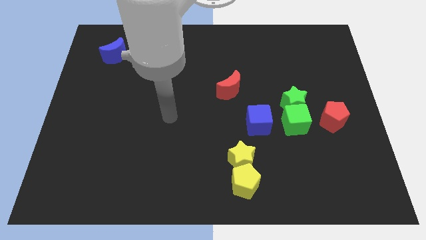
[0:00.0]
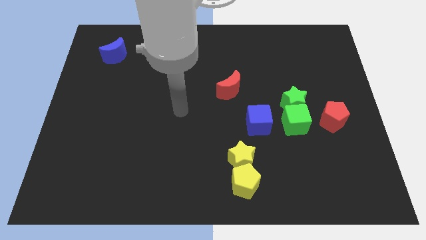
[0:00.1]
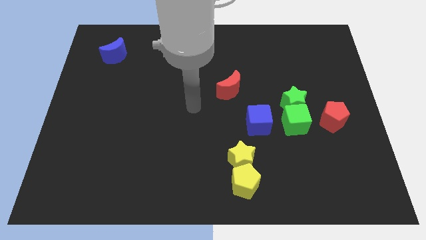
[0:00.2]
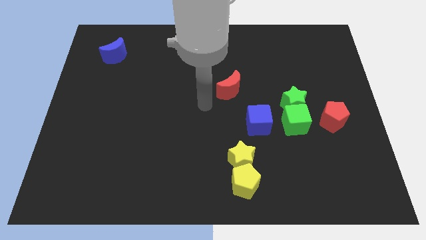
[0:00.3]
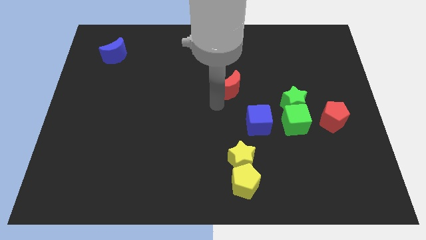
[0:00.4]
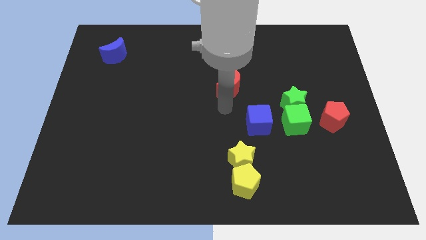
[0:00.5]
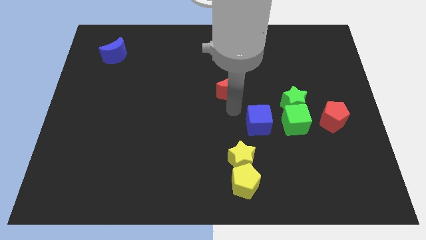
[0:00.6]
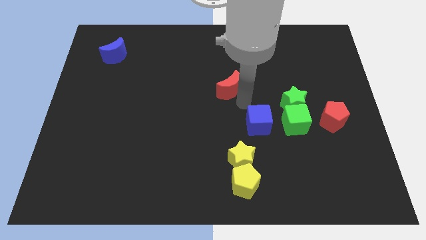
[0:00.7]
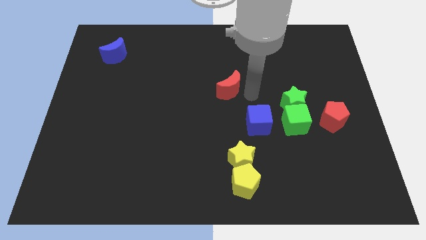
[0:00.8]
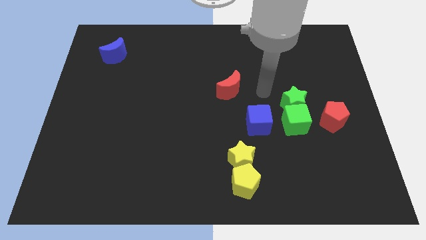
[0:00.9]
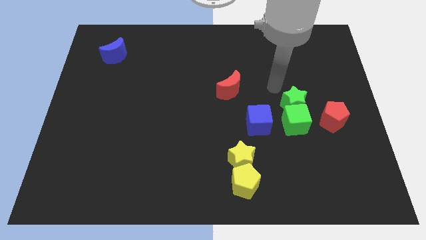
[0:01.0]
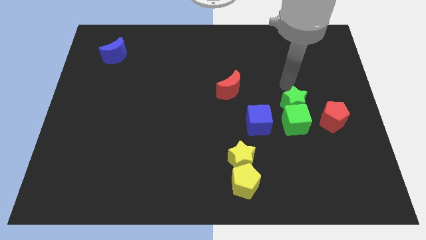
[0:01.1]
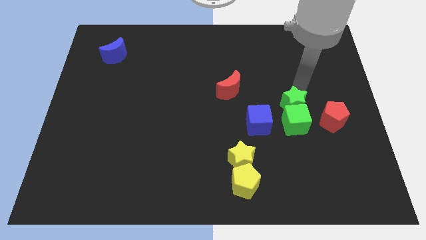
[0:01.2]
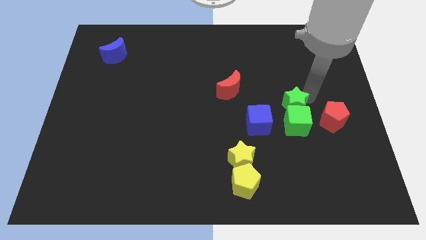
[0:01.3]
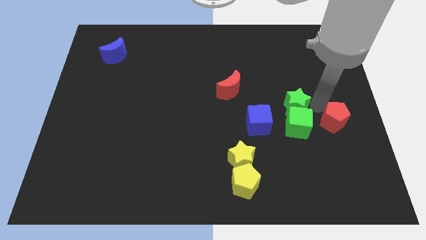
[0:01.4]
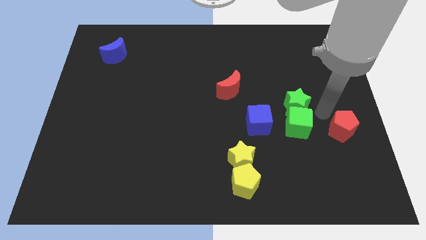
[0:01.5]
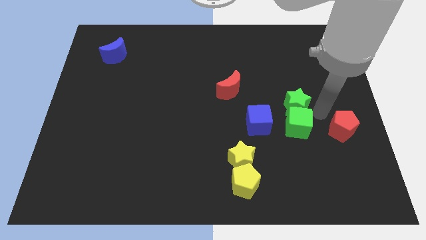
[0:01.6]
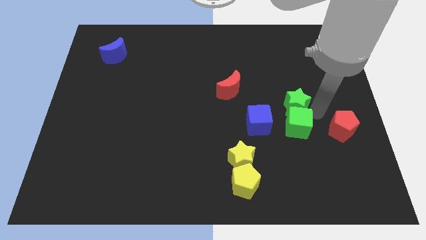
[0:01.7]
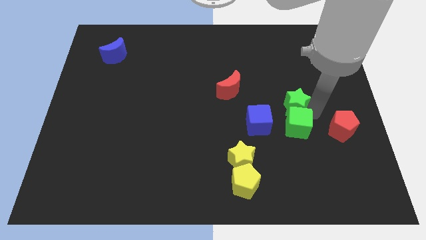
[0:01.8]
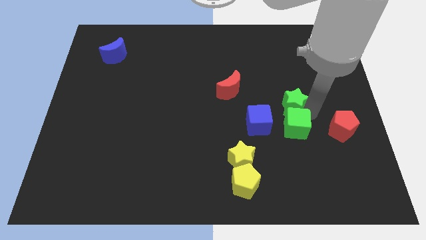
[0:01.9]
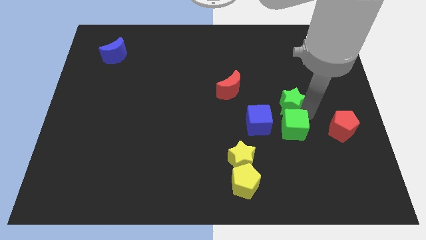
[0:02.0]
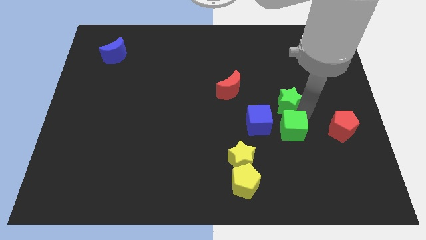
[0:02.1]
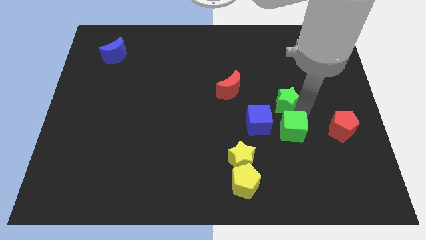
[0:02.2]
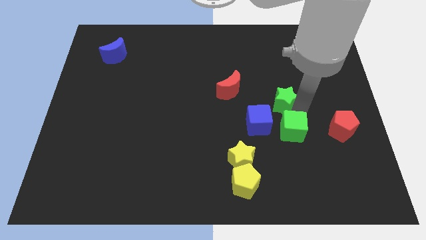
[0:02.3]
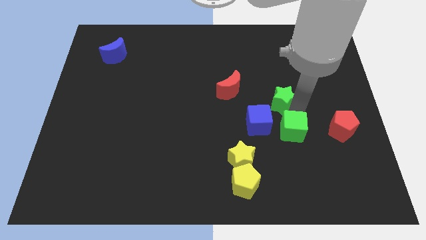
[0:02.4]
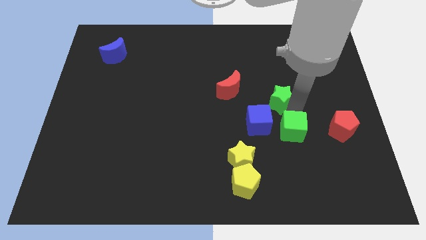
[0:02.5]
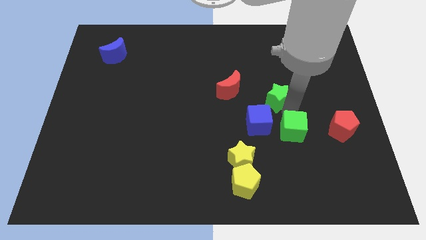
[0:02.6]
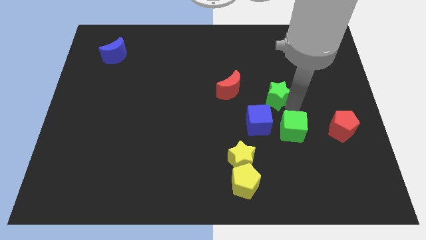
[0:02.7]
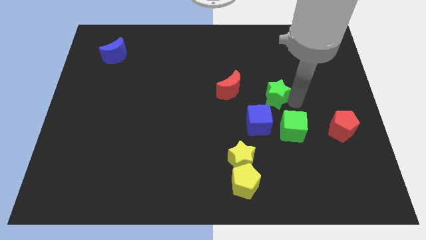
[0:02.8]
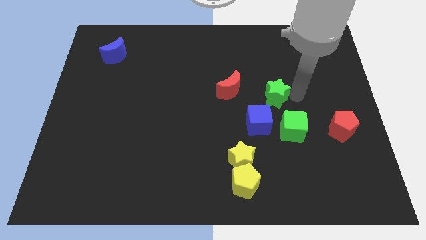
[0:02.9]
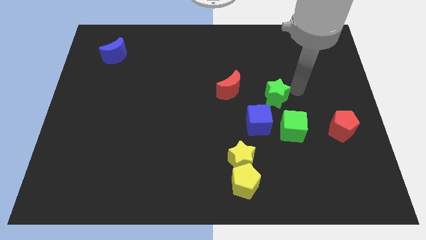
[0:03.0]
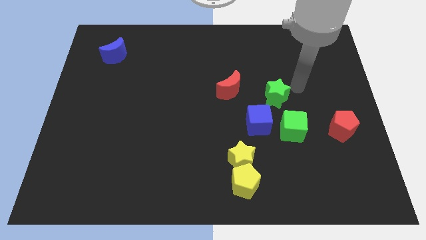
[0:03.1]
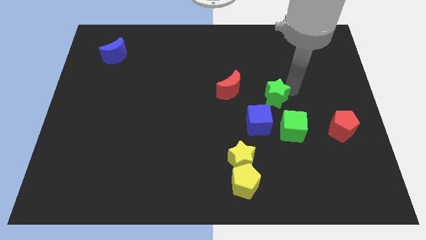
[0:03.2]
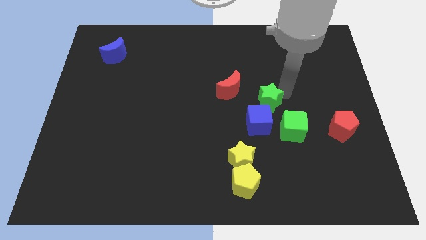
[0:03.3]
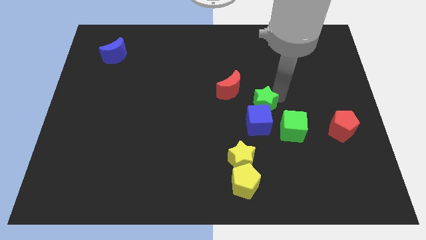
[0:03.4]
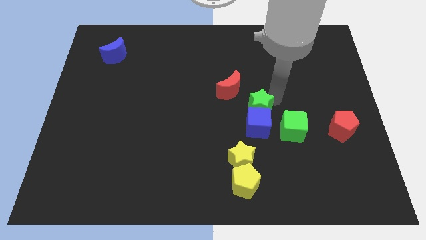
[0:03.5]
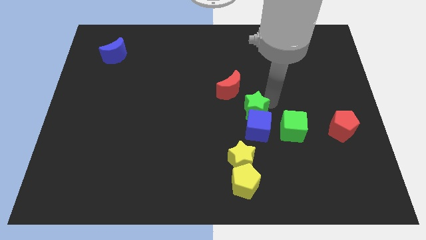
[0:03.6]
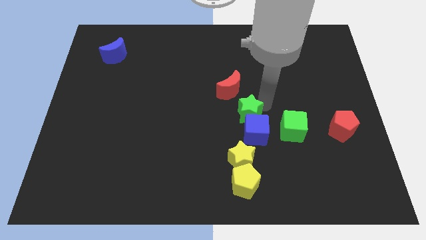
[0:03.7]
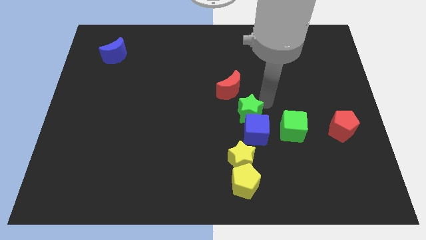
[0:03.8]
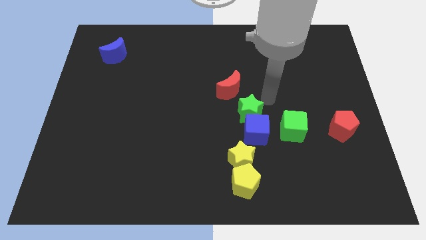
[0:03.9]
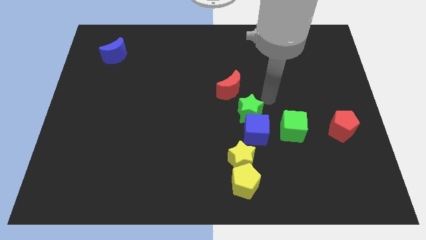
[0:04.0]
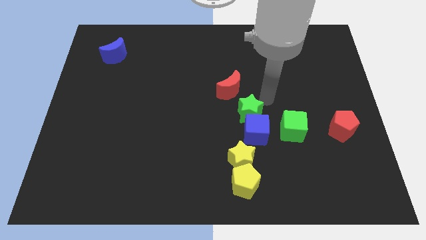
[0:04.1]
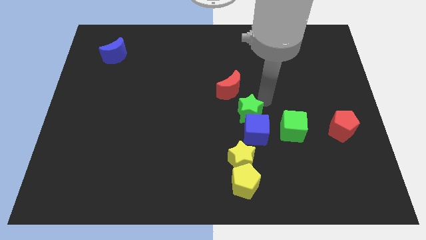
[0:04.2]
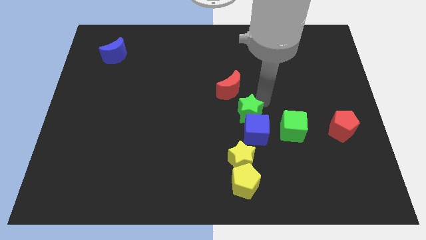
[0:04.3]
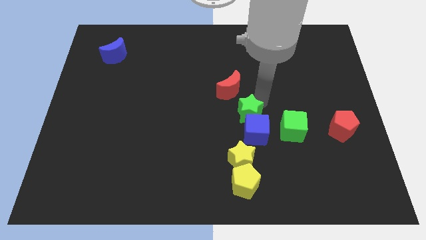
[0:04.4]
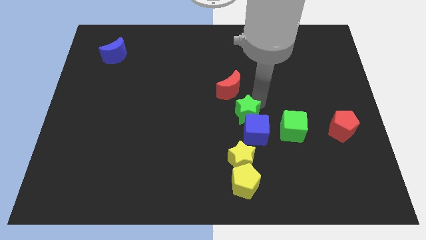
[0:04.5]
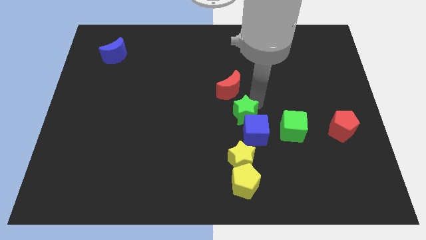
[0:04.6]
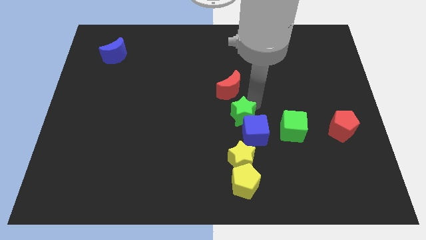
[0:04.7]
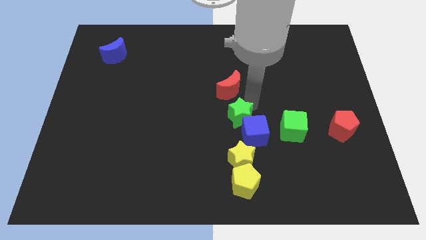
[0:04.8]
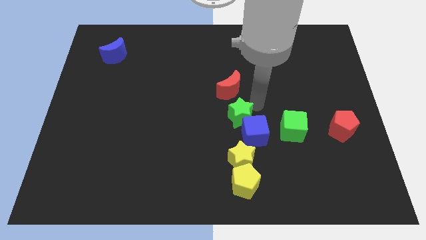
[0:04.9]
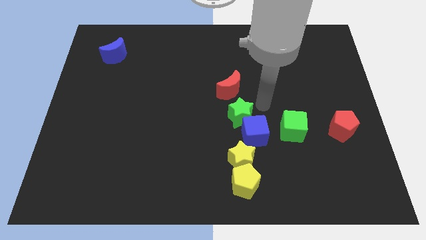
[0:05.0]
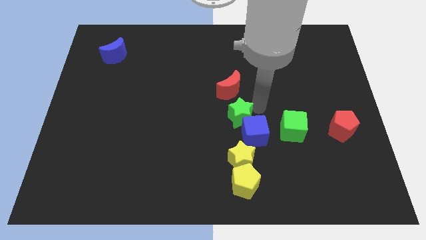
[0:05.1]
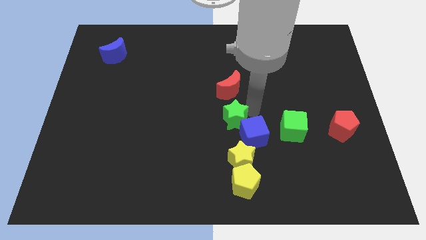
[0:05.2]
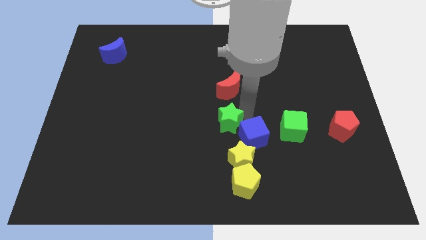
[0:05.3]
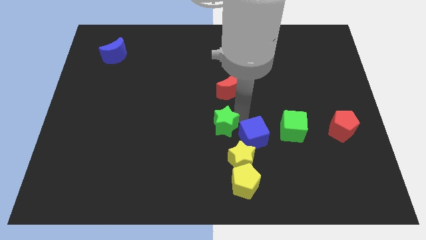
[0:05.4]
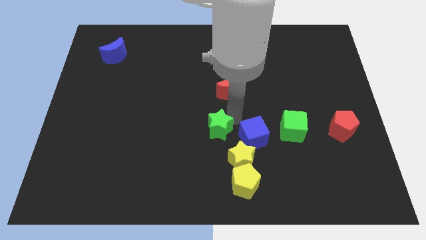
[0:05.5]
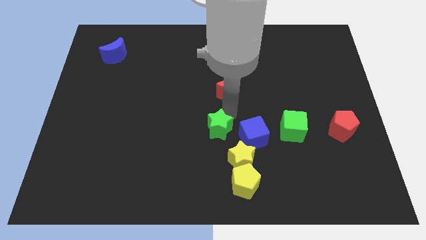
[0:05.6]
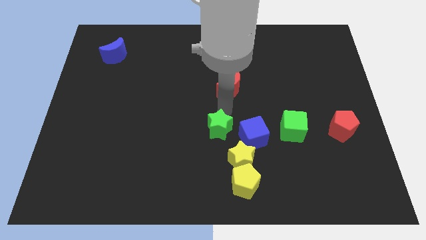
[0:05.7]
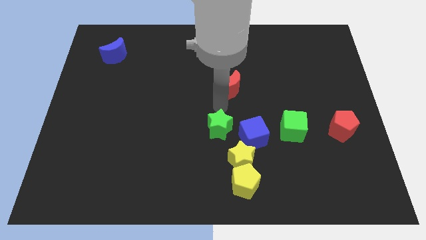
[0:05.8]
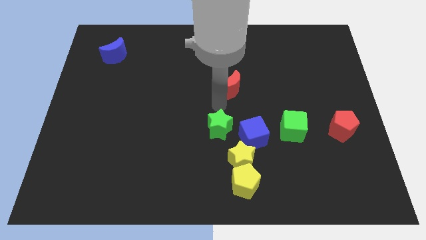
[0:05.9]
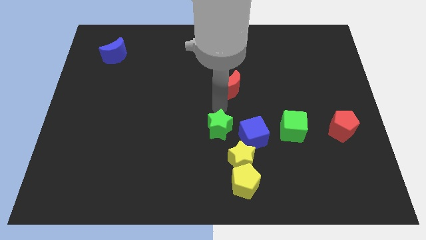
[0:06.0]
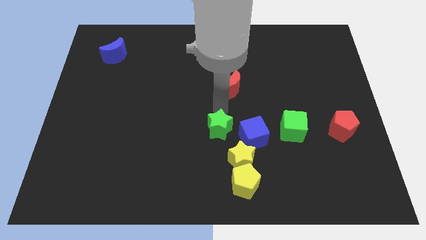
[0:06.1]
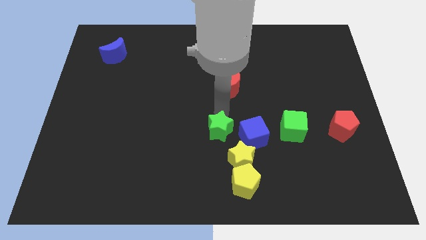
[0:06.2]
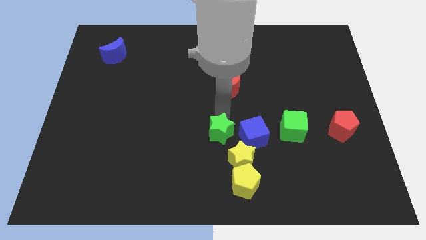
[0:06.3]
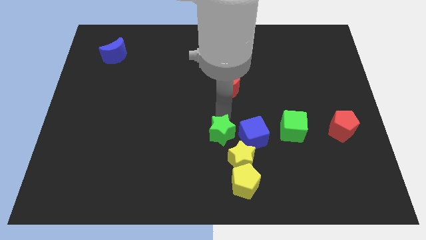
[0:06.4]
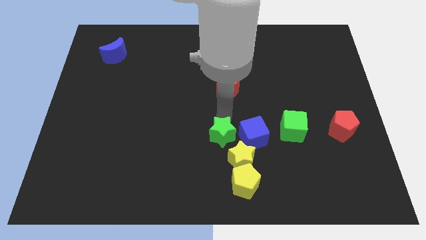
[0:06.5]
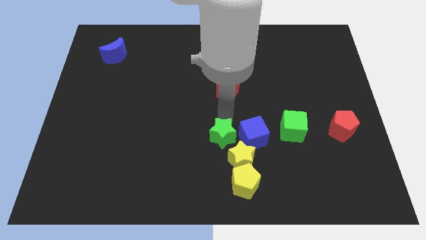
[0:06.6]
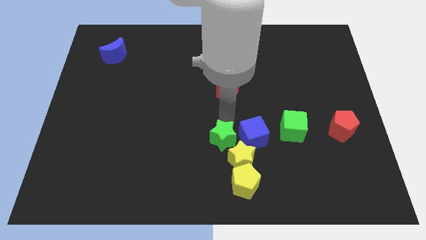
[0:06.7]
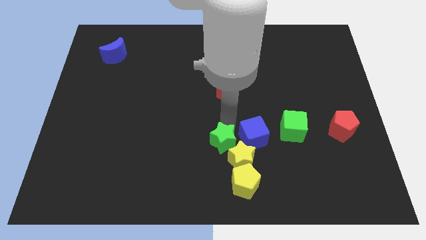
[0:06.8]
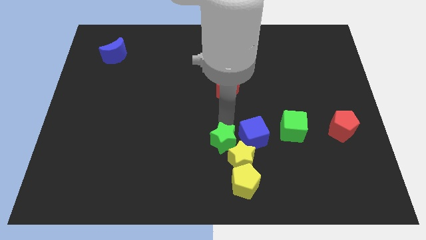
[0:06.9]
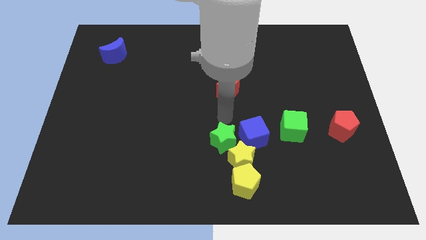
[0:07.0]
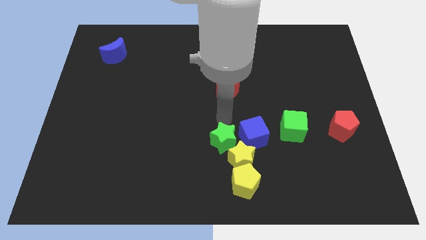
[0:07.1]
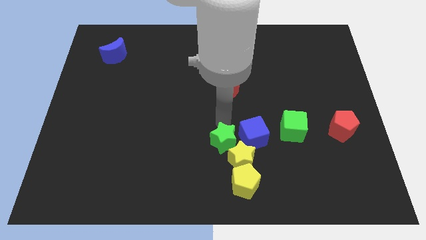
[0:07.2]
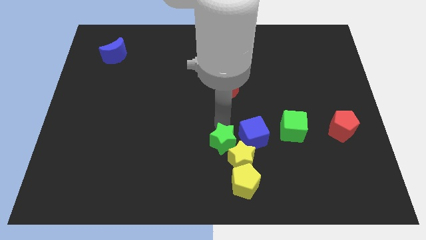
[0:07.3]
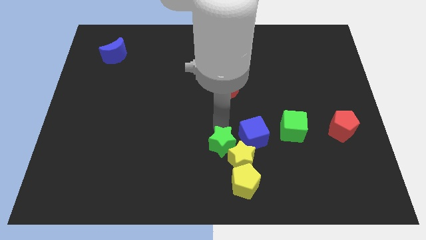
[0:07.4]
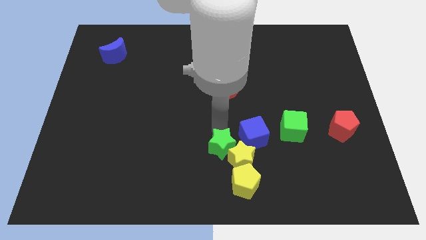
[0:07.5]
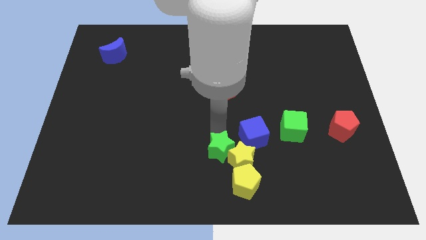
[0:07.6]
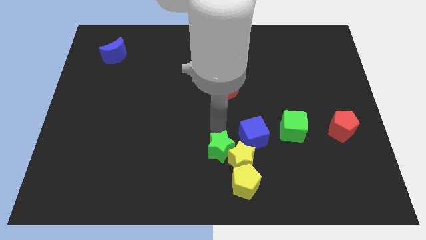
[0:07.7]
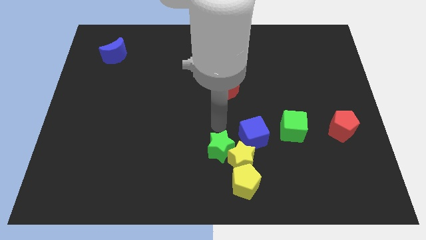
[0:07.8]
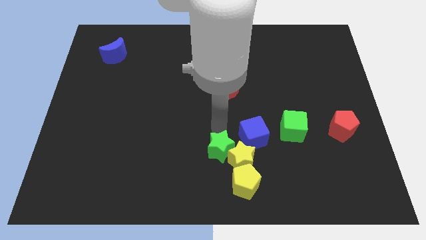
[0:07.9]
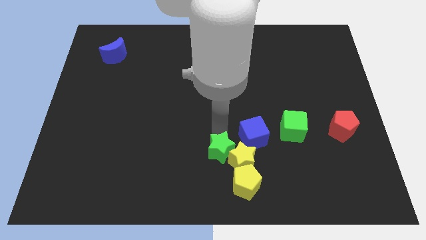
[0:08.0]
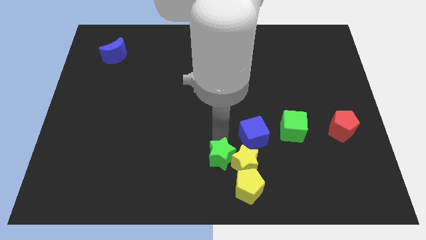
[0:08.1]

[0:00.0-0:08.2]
slide the green star to the bottom side
